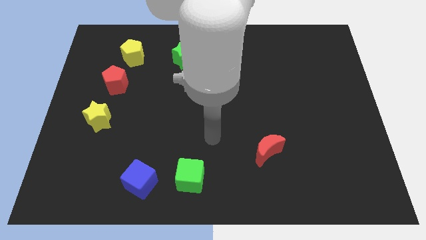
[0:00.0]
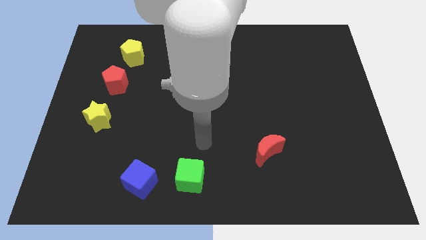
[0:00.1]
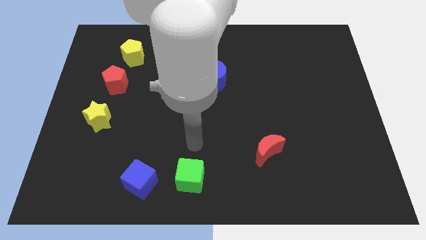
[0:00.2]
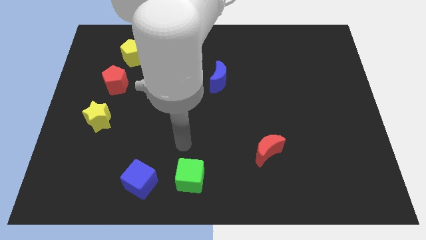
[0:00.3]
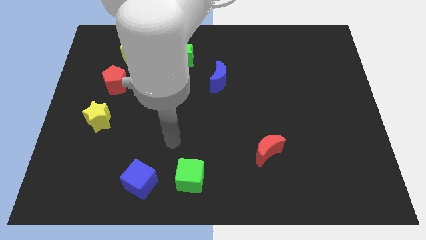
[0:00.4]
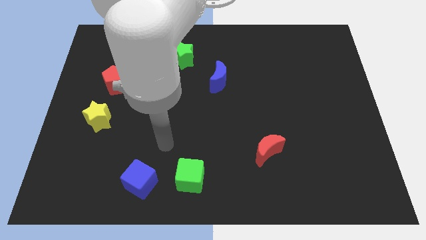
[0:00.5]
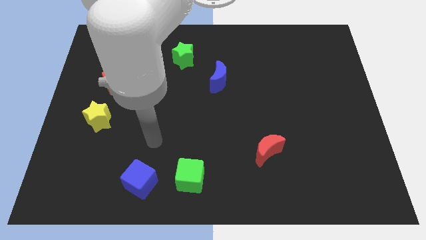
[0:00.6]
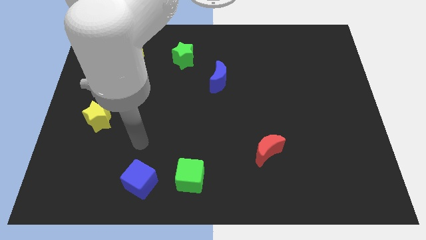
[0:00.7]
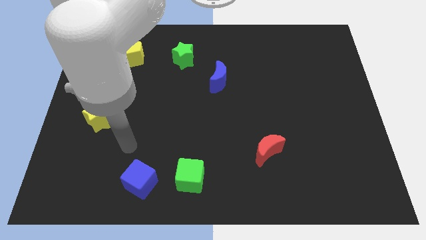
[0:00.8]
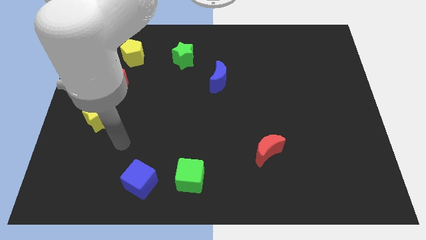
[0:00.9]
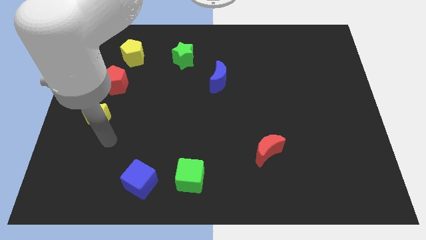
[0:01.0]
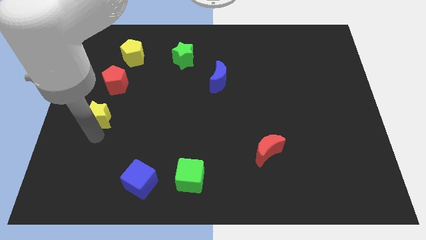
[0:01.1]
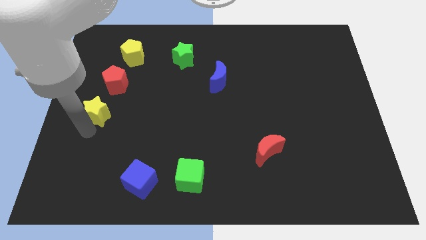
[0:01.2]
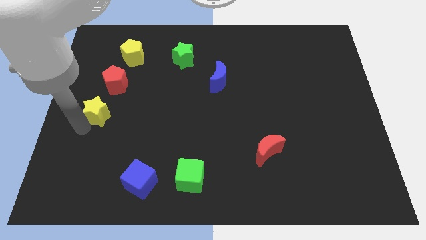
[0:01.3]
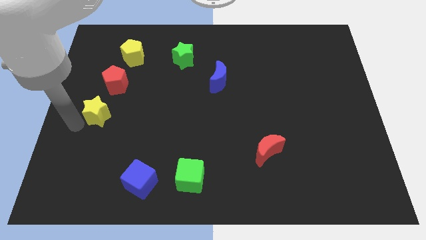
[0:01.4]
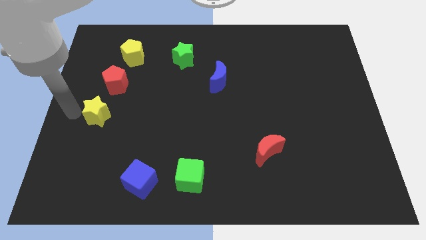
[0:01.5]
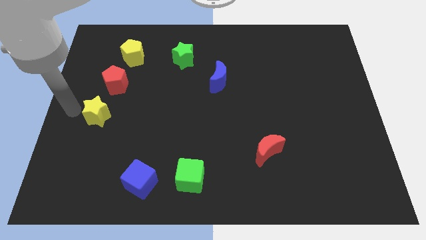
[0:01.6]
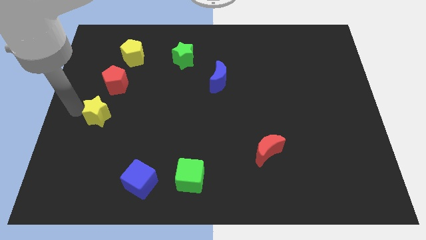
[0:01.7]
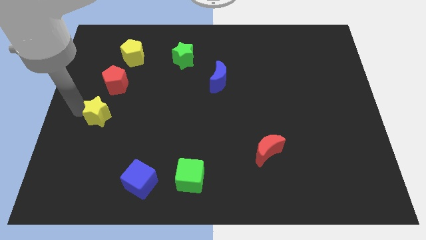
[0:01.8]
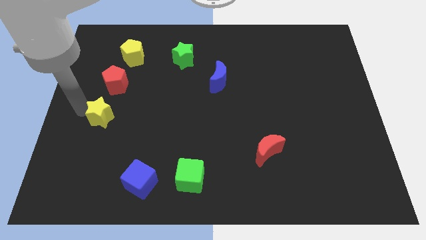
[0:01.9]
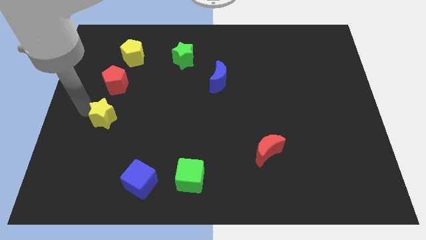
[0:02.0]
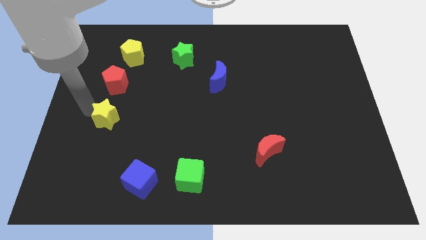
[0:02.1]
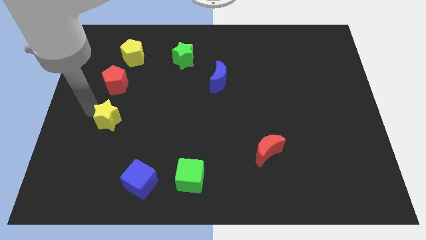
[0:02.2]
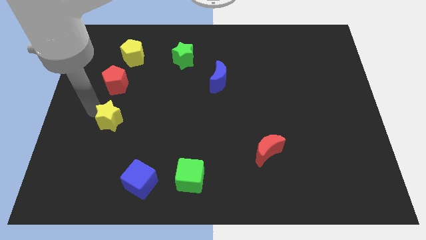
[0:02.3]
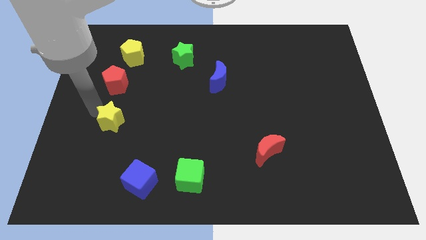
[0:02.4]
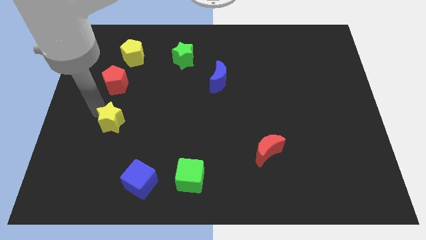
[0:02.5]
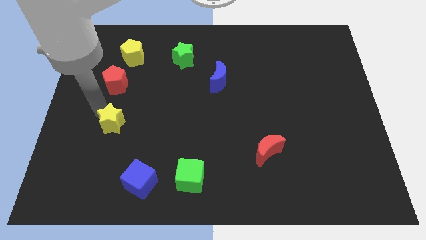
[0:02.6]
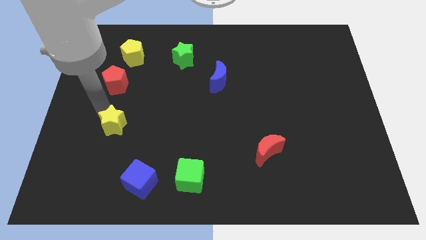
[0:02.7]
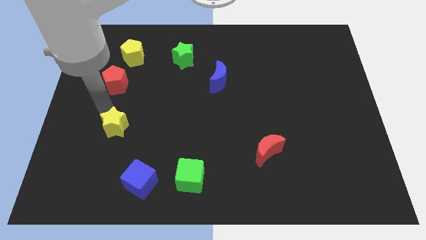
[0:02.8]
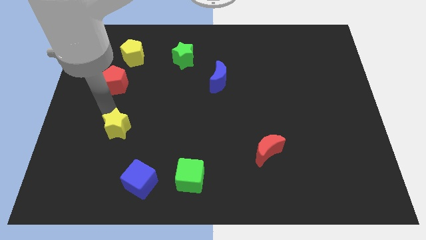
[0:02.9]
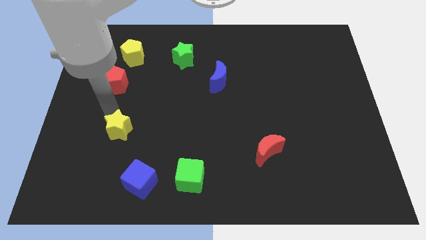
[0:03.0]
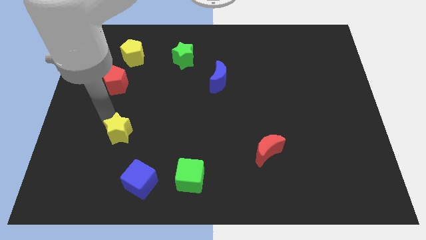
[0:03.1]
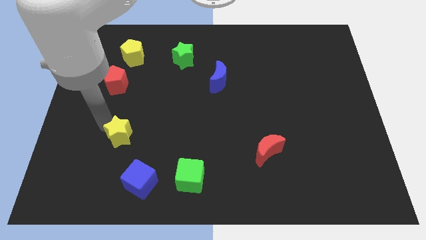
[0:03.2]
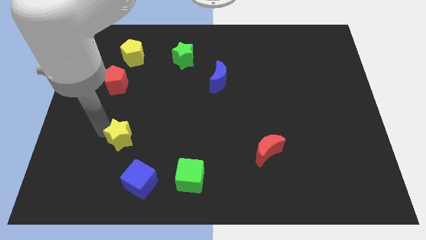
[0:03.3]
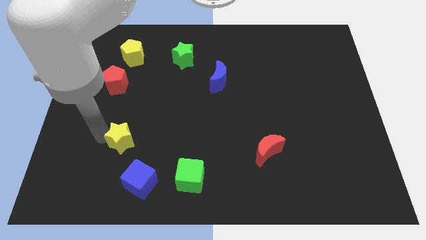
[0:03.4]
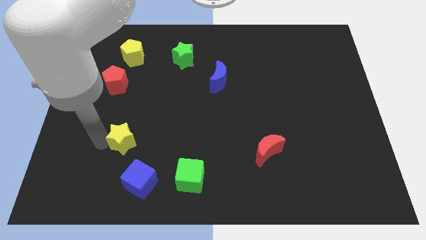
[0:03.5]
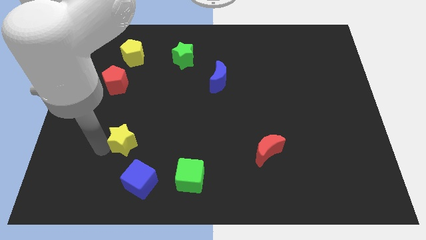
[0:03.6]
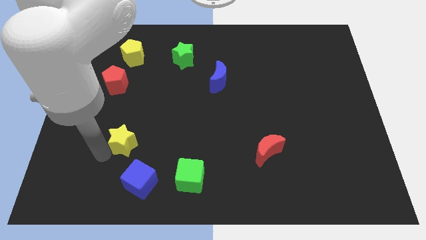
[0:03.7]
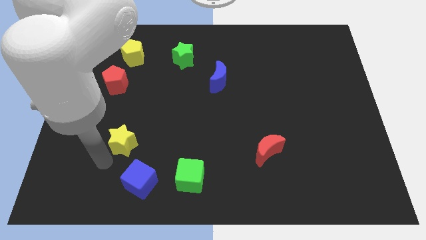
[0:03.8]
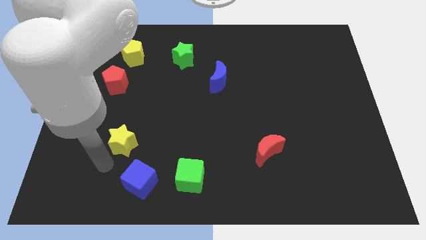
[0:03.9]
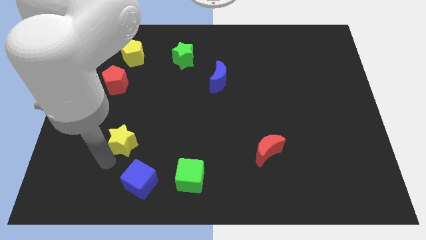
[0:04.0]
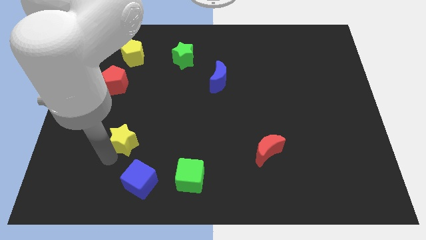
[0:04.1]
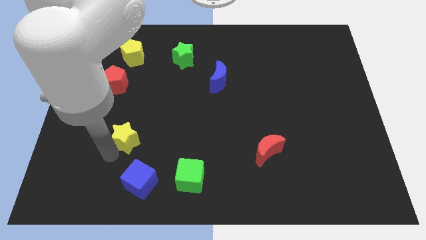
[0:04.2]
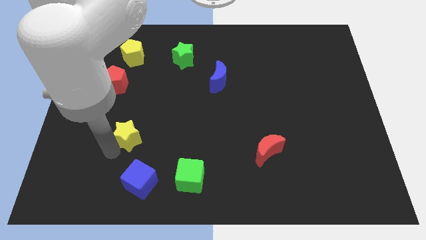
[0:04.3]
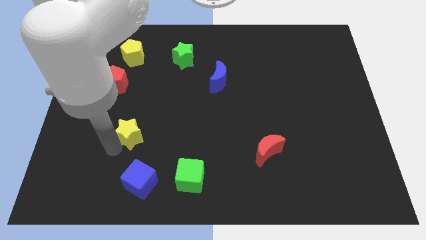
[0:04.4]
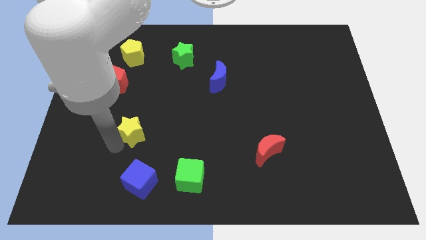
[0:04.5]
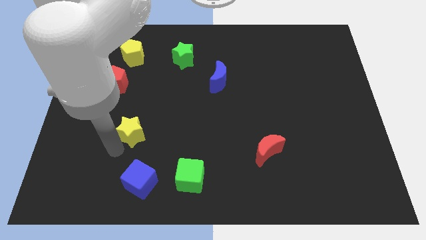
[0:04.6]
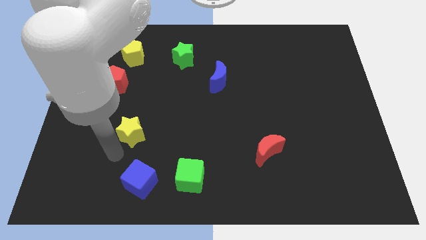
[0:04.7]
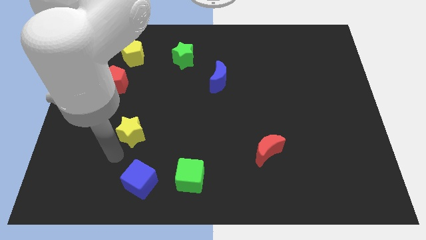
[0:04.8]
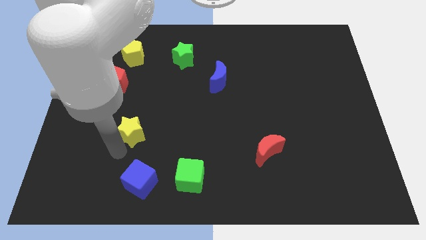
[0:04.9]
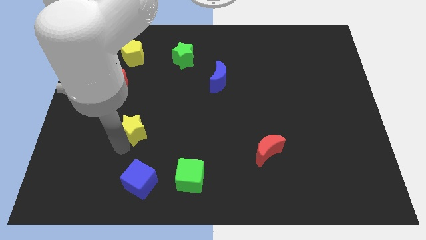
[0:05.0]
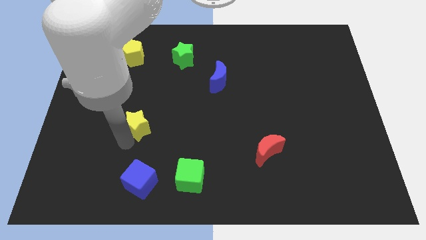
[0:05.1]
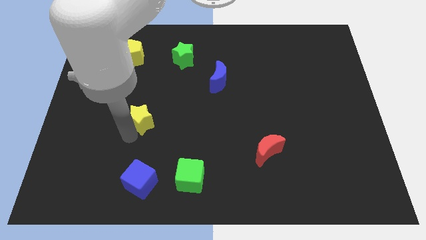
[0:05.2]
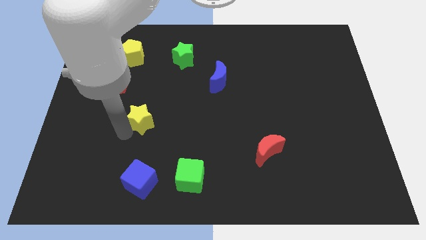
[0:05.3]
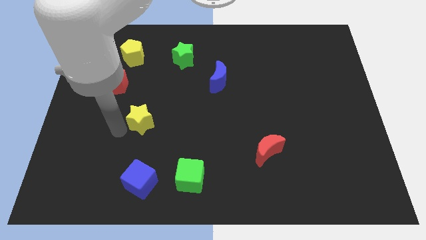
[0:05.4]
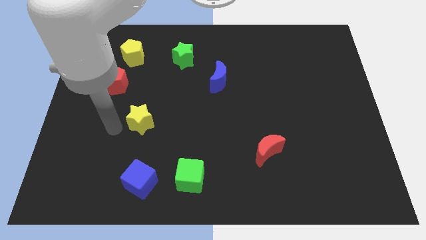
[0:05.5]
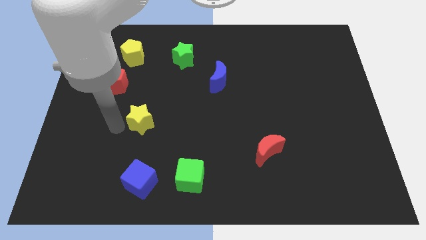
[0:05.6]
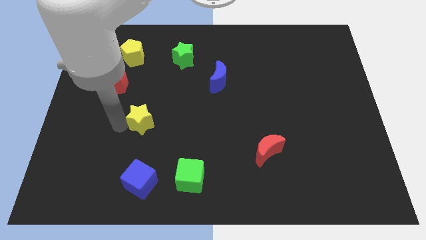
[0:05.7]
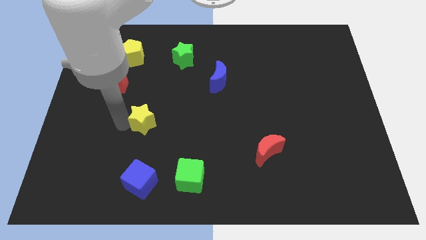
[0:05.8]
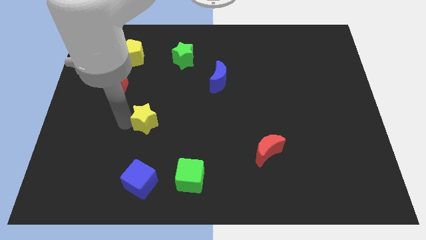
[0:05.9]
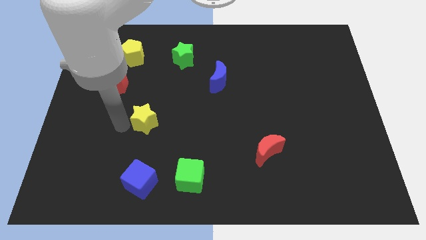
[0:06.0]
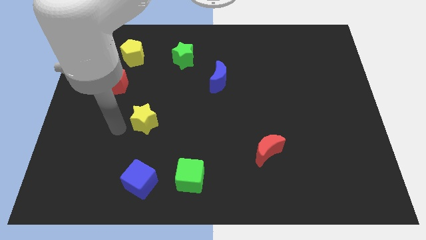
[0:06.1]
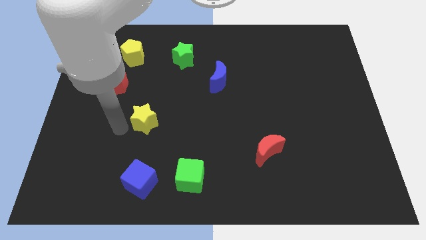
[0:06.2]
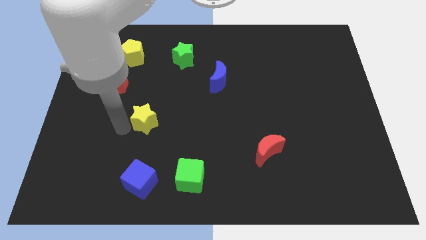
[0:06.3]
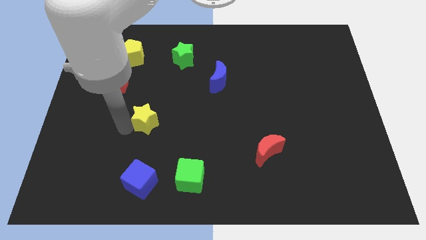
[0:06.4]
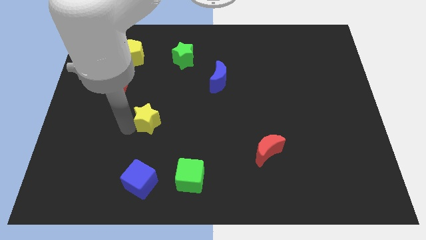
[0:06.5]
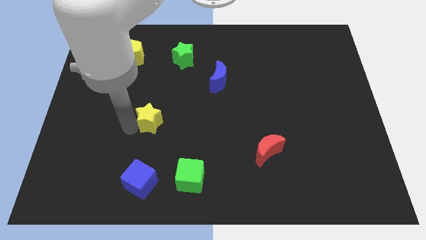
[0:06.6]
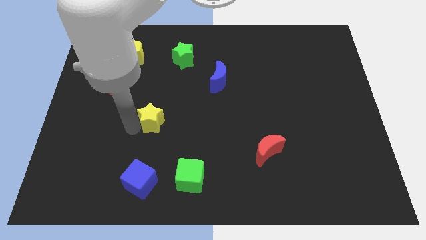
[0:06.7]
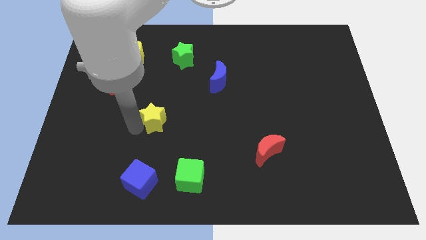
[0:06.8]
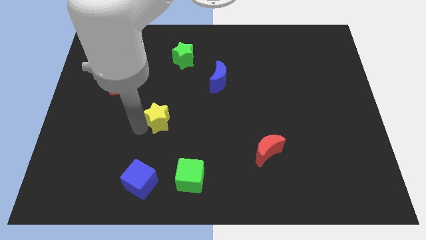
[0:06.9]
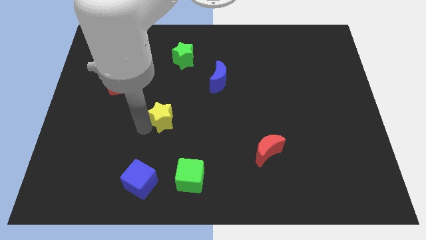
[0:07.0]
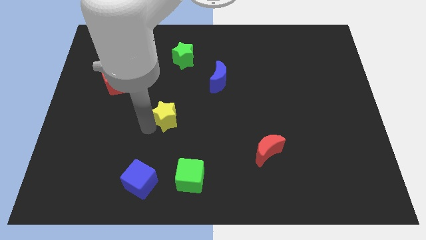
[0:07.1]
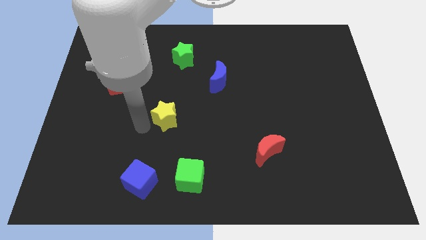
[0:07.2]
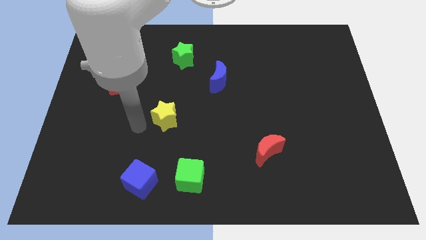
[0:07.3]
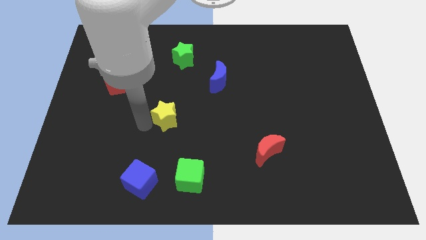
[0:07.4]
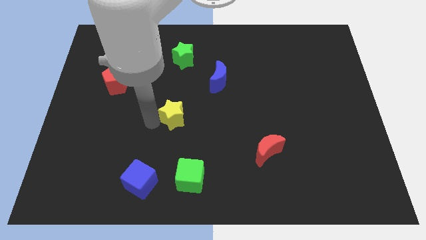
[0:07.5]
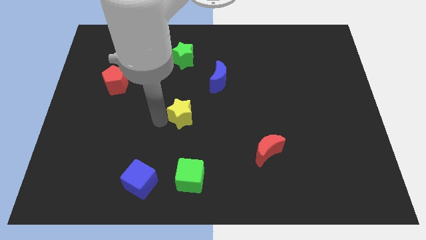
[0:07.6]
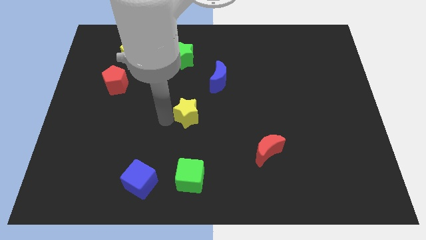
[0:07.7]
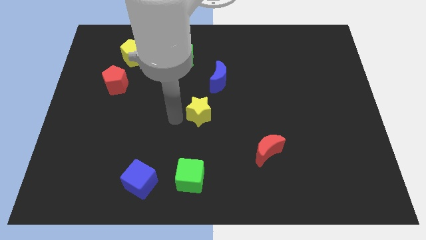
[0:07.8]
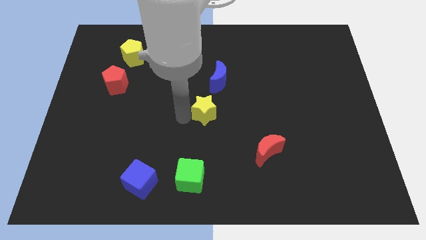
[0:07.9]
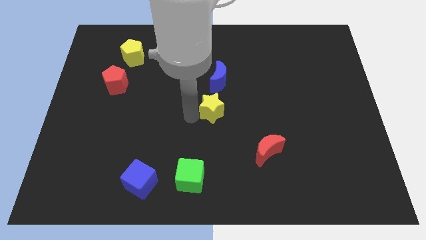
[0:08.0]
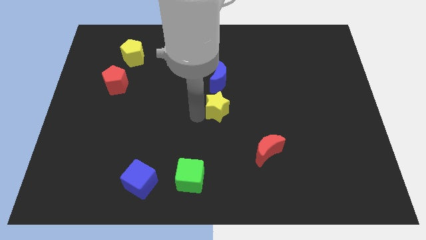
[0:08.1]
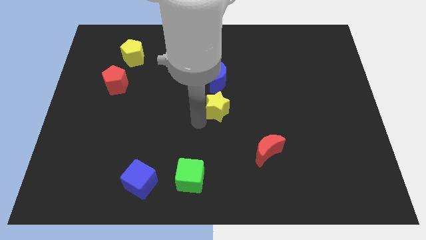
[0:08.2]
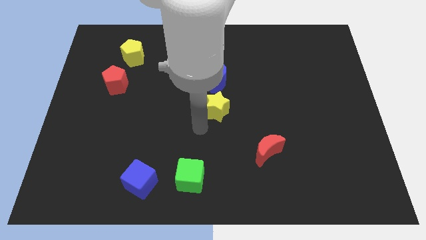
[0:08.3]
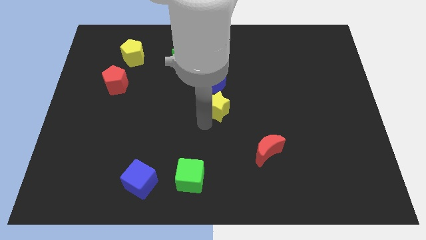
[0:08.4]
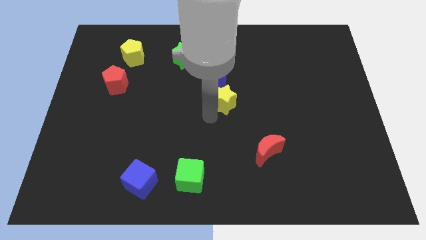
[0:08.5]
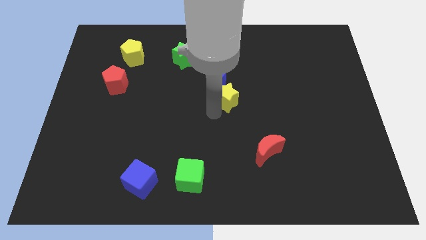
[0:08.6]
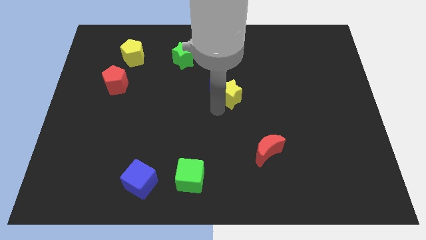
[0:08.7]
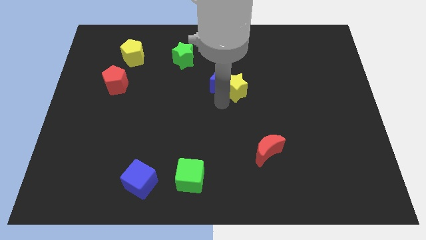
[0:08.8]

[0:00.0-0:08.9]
slide the yellow star to the right of the blue moon
